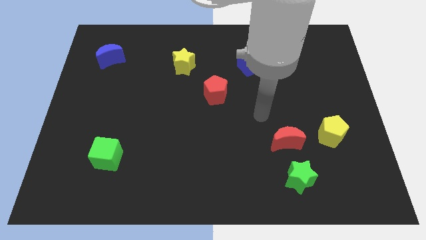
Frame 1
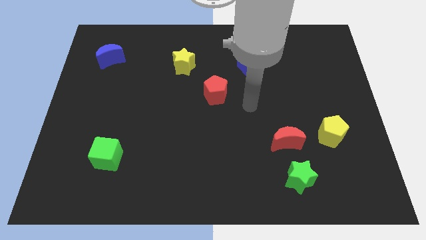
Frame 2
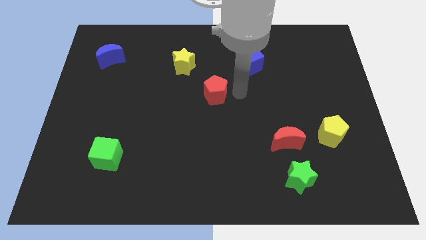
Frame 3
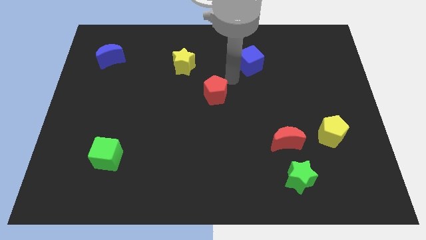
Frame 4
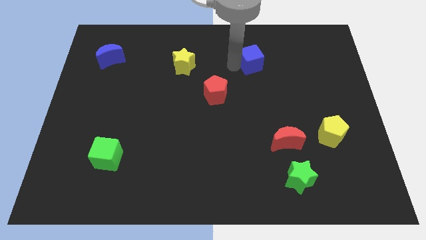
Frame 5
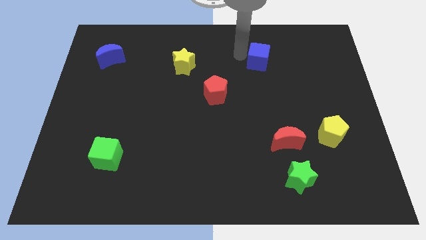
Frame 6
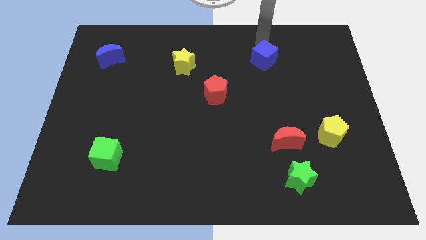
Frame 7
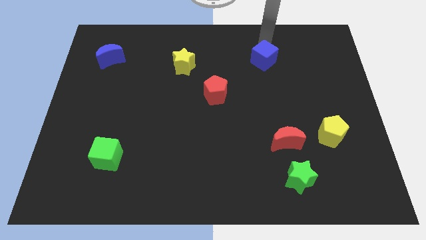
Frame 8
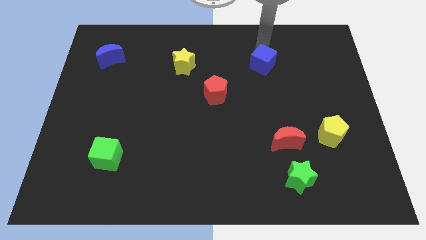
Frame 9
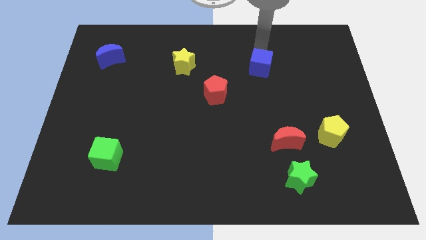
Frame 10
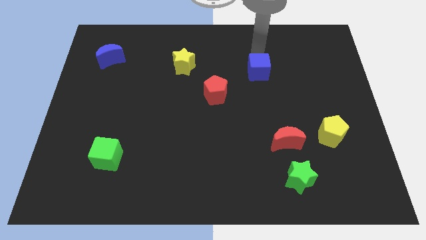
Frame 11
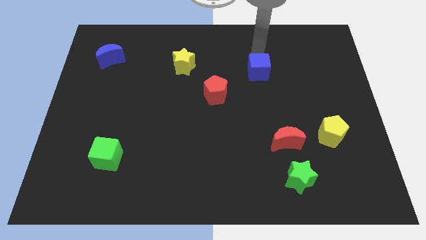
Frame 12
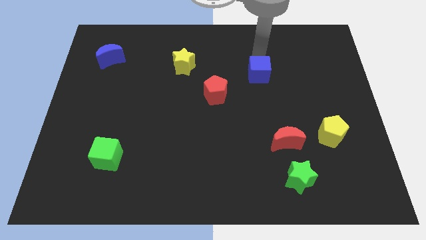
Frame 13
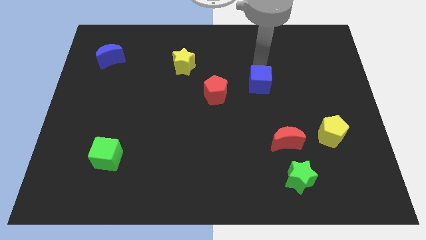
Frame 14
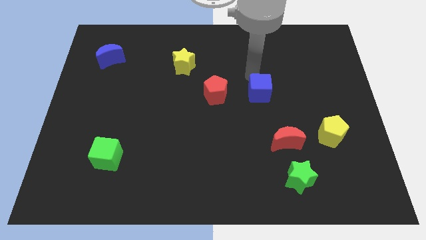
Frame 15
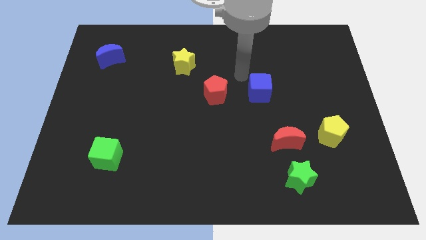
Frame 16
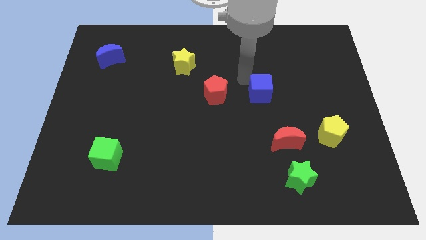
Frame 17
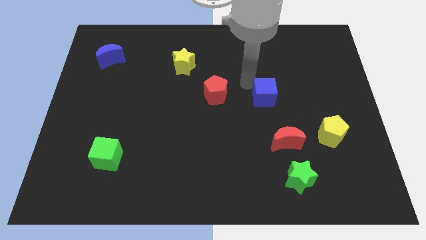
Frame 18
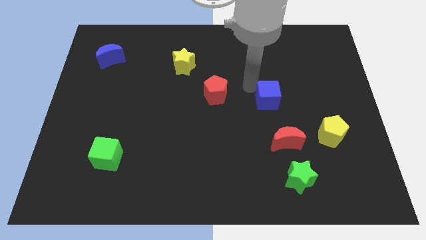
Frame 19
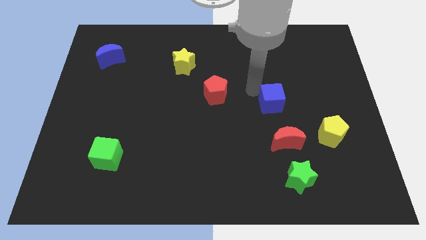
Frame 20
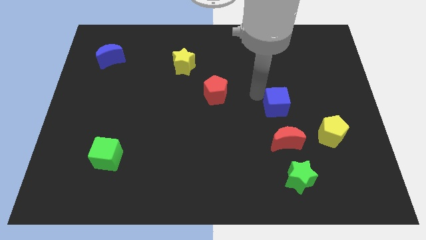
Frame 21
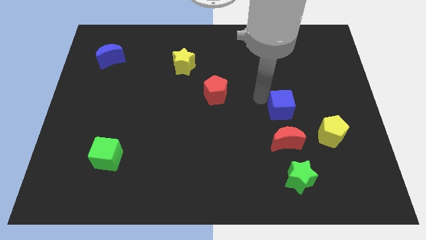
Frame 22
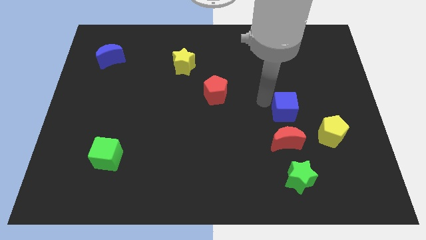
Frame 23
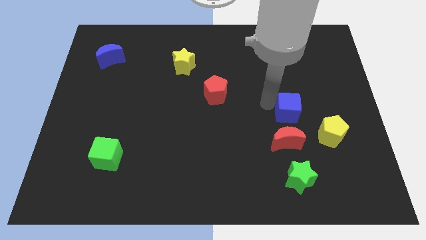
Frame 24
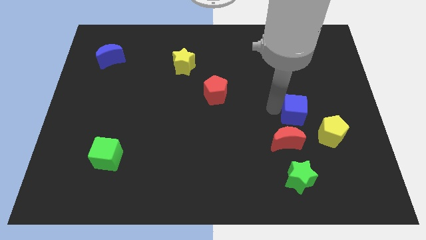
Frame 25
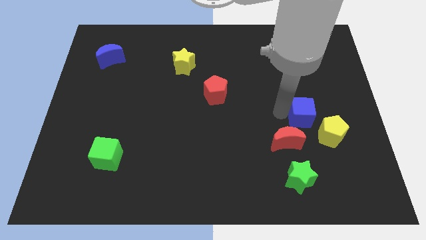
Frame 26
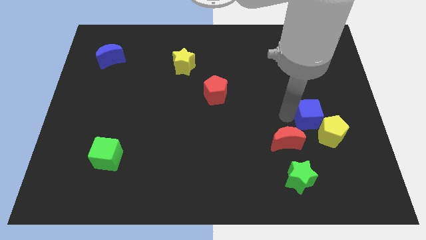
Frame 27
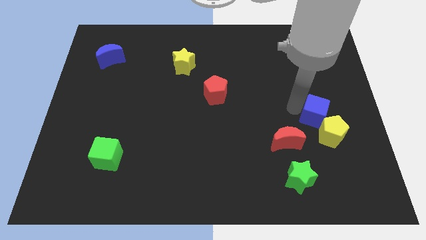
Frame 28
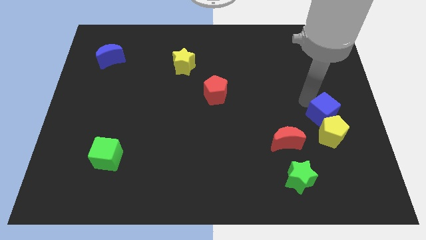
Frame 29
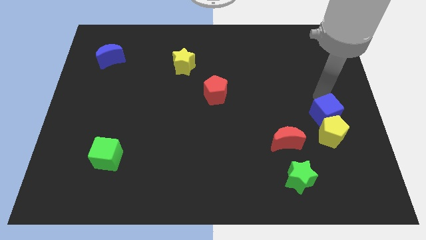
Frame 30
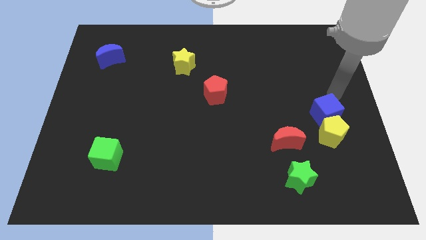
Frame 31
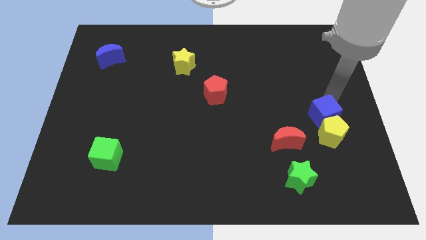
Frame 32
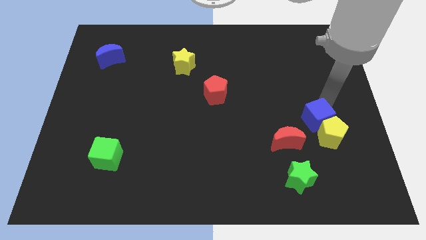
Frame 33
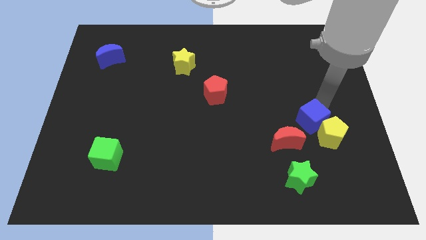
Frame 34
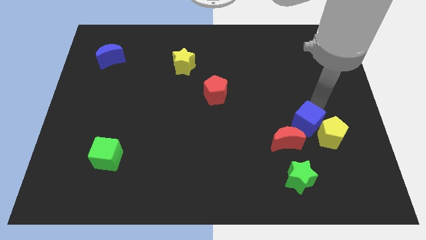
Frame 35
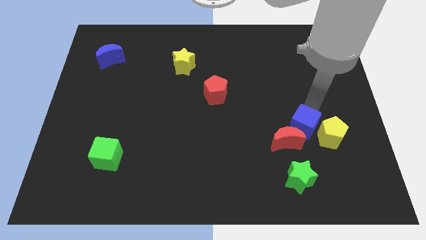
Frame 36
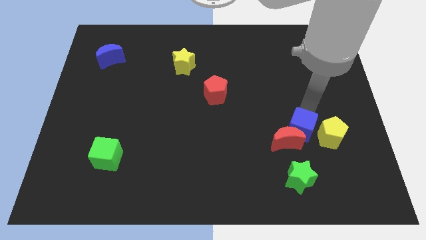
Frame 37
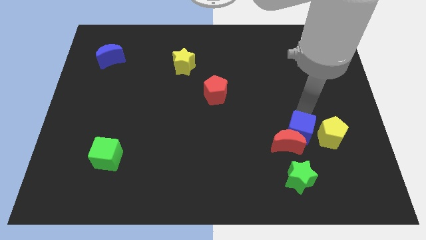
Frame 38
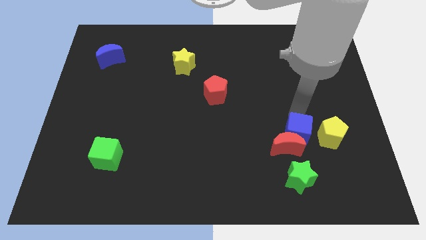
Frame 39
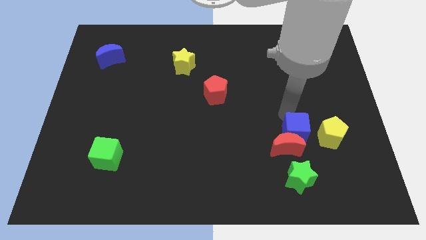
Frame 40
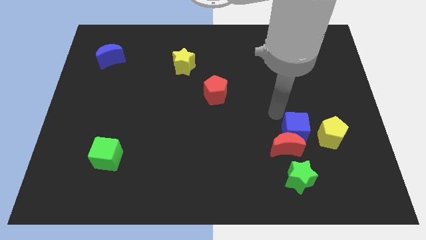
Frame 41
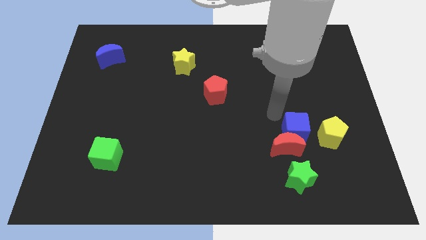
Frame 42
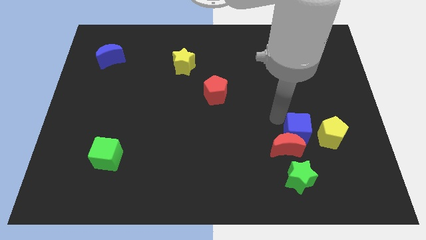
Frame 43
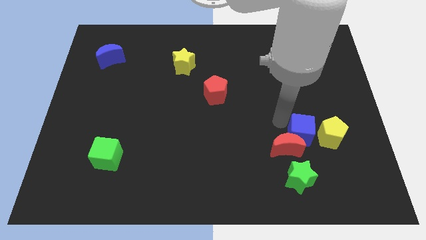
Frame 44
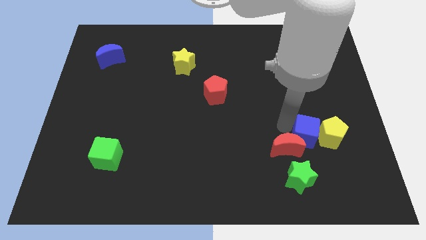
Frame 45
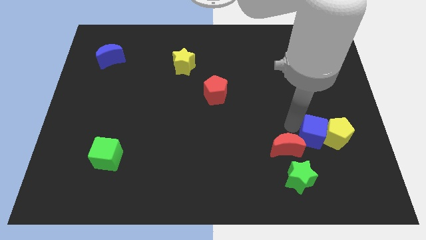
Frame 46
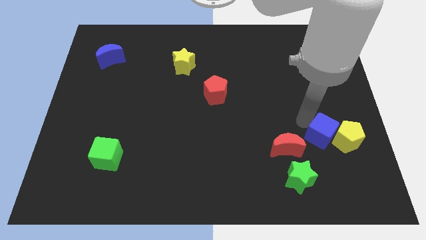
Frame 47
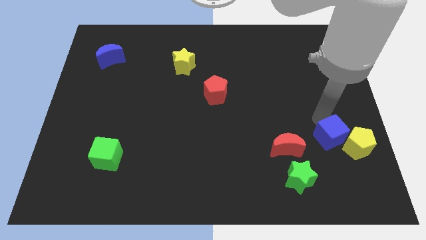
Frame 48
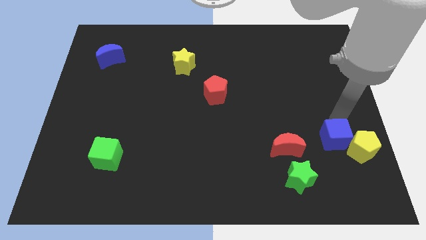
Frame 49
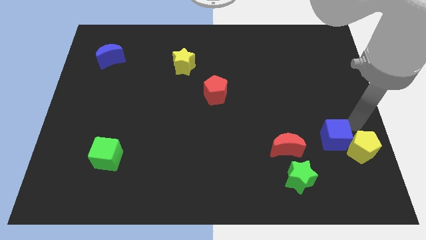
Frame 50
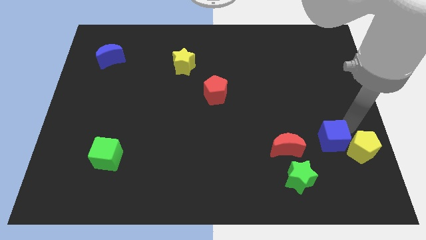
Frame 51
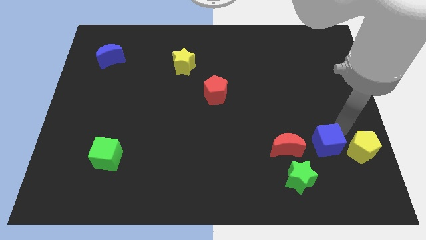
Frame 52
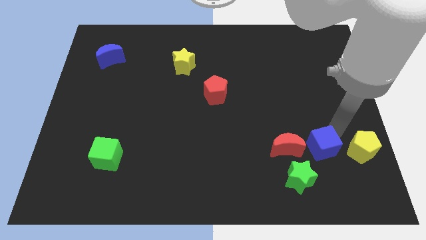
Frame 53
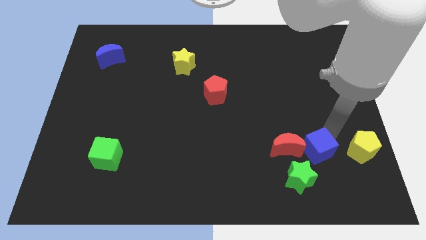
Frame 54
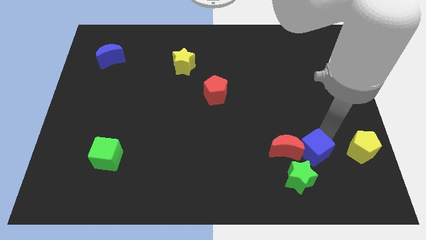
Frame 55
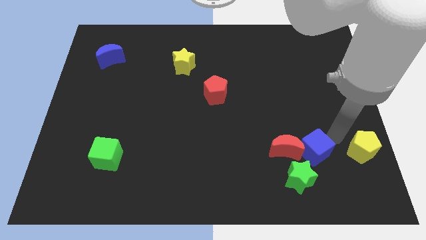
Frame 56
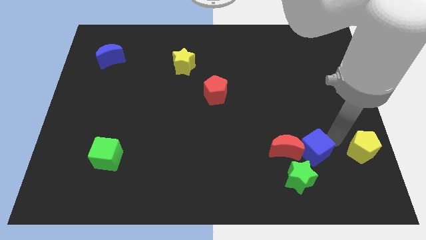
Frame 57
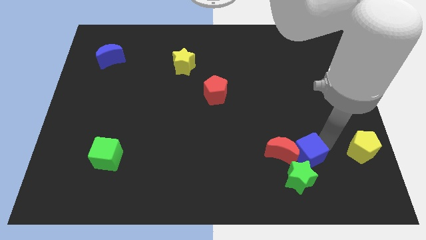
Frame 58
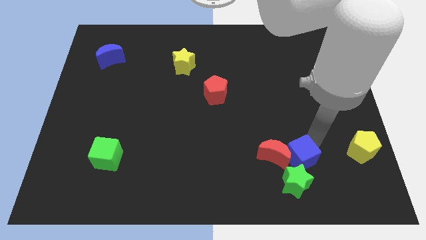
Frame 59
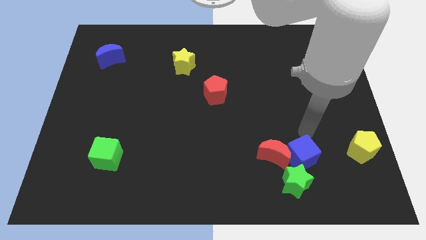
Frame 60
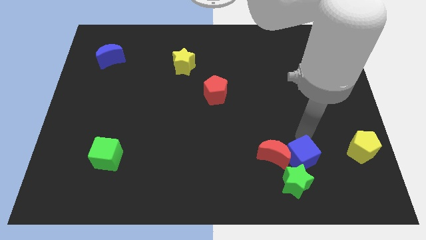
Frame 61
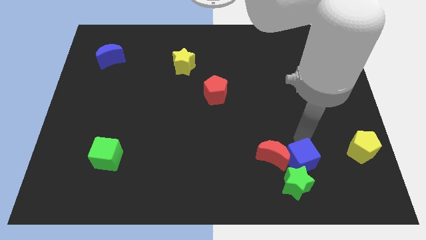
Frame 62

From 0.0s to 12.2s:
slide the blue cube close to the green star

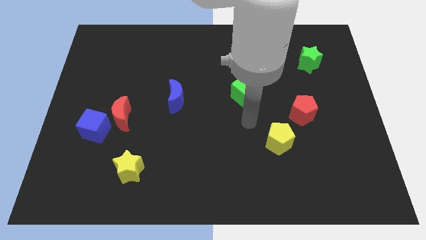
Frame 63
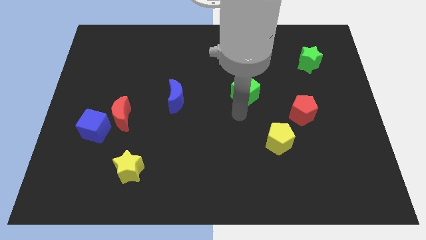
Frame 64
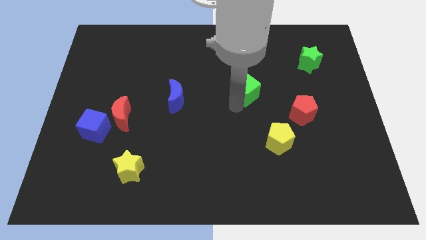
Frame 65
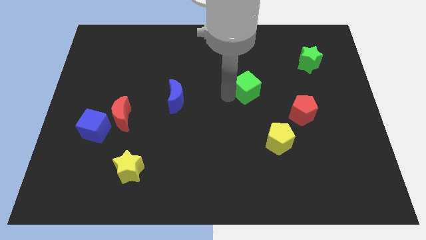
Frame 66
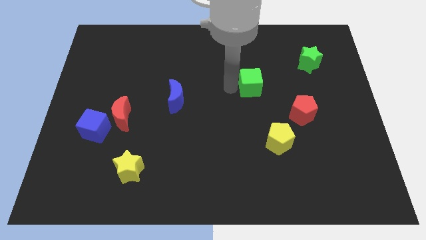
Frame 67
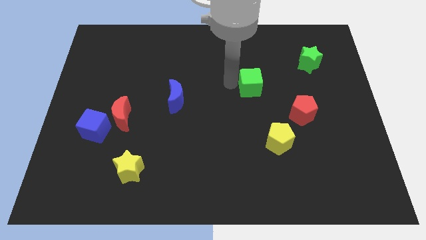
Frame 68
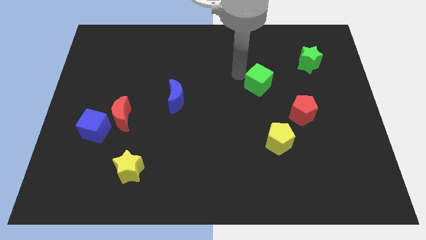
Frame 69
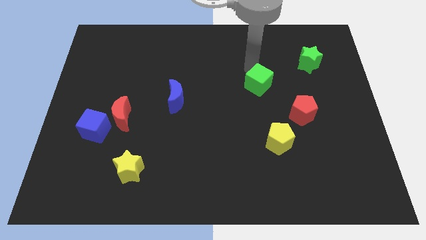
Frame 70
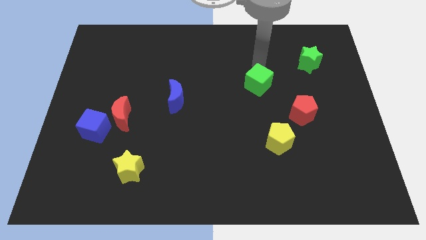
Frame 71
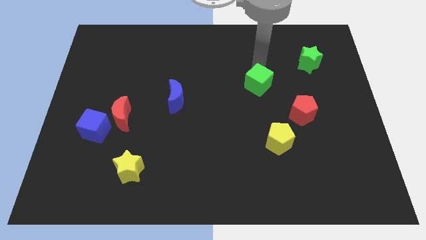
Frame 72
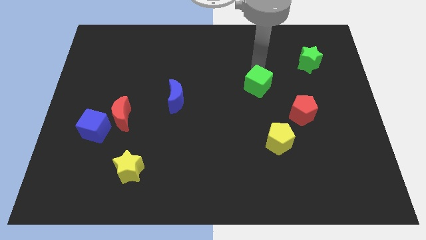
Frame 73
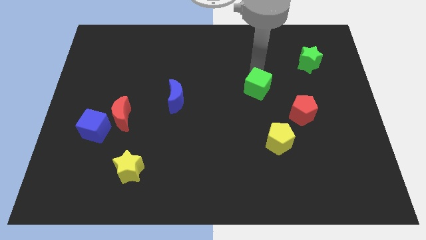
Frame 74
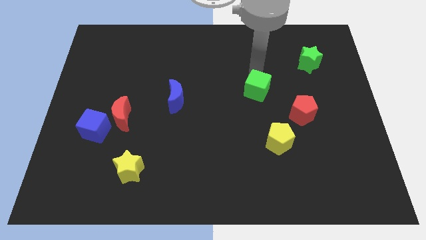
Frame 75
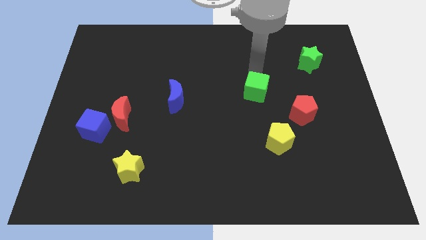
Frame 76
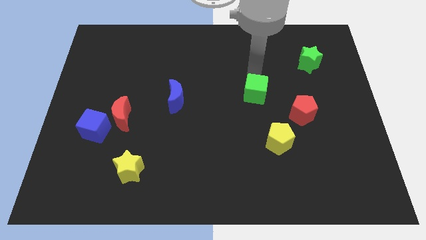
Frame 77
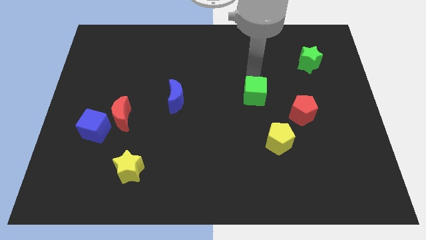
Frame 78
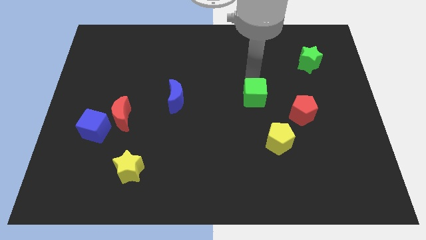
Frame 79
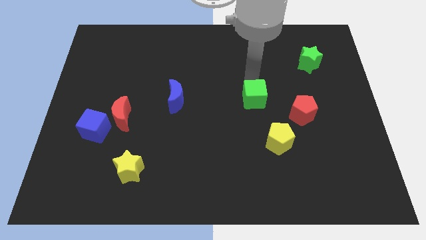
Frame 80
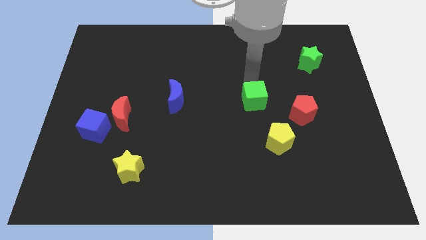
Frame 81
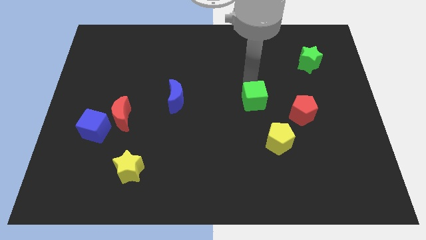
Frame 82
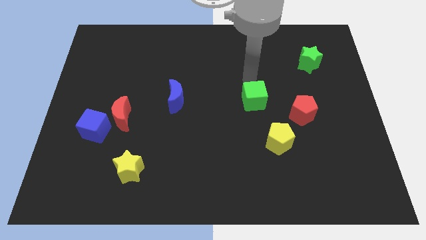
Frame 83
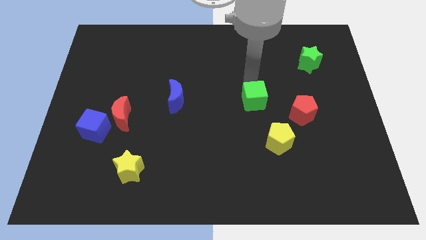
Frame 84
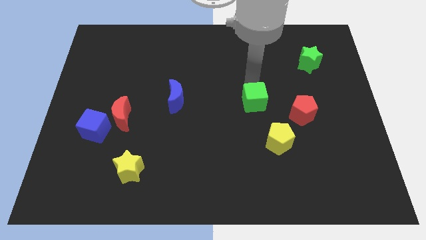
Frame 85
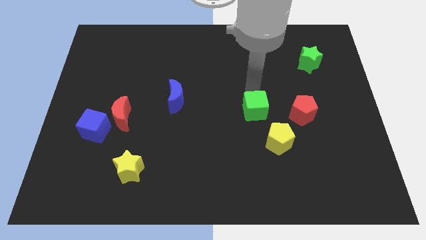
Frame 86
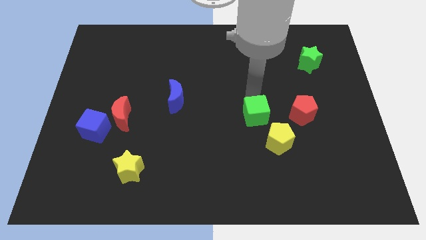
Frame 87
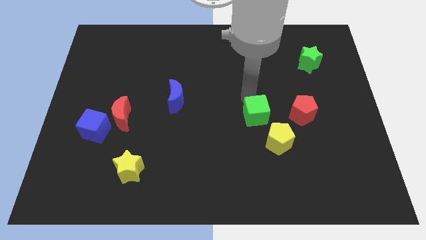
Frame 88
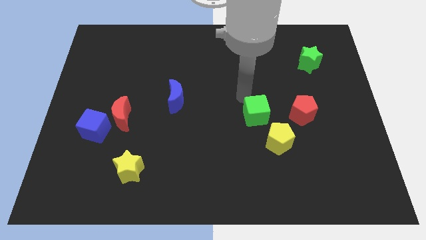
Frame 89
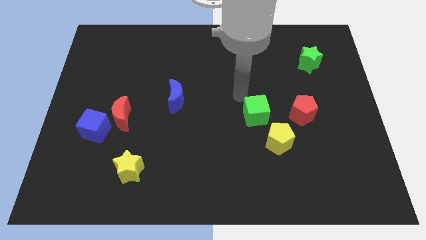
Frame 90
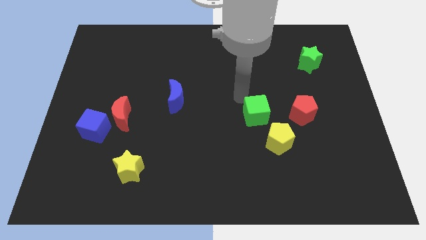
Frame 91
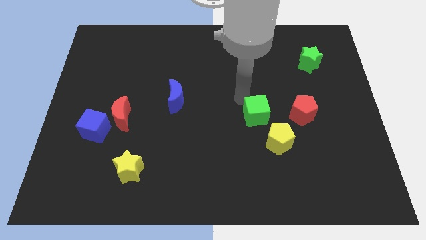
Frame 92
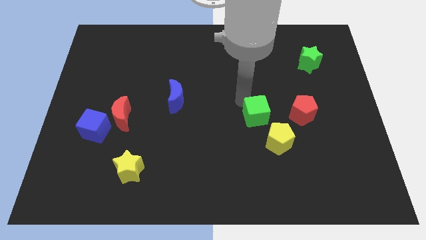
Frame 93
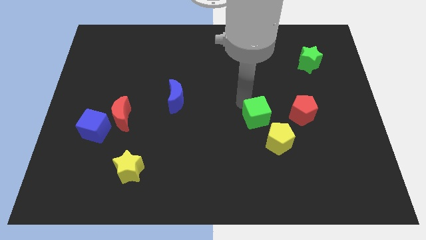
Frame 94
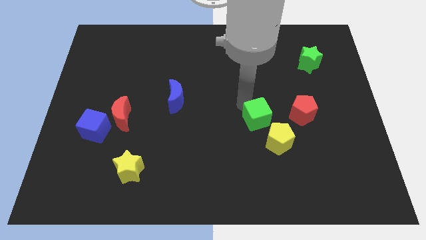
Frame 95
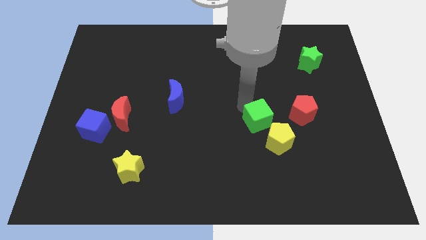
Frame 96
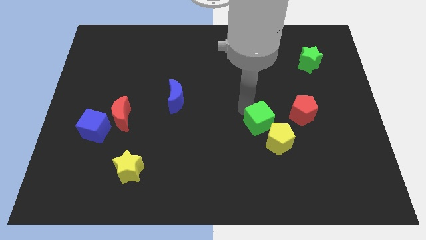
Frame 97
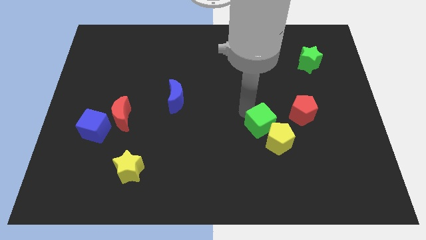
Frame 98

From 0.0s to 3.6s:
slide the green cube to the yellow pentagon
